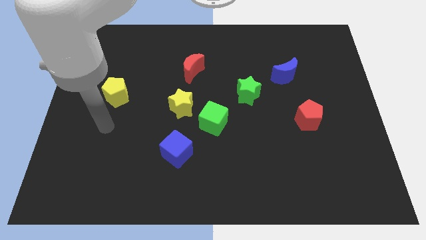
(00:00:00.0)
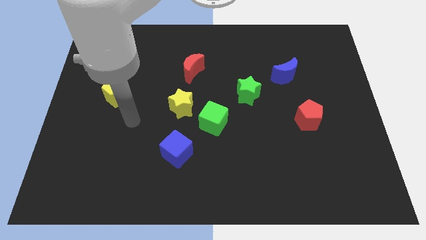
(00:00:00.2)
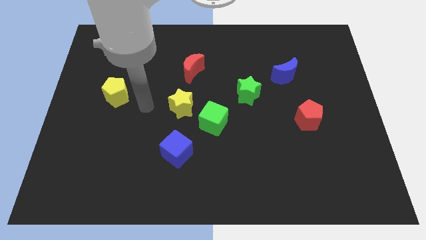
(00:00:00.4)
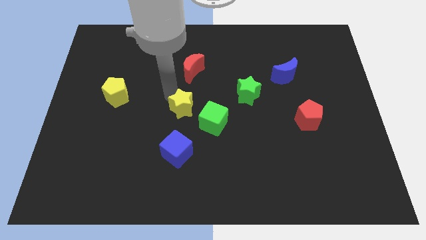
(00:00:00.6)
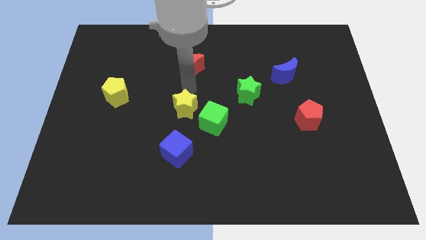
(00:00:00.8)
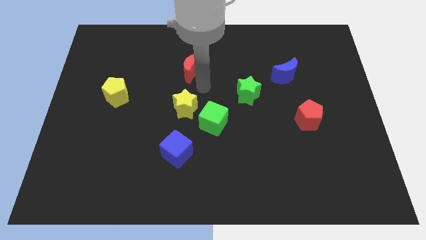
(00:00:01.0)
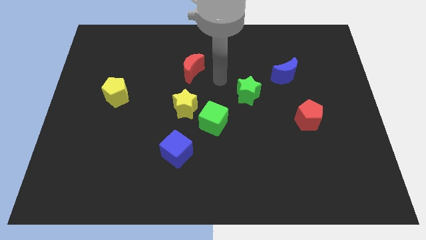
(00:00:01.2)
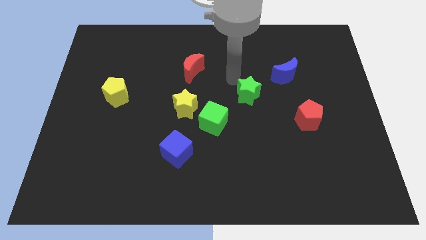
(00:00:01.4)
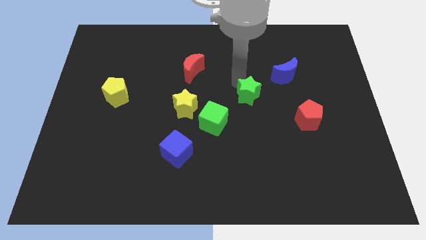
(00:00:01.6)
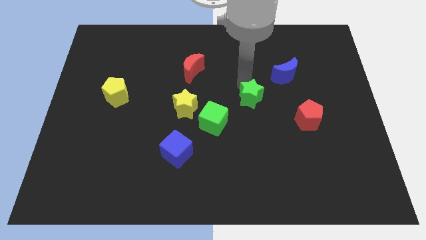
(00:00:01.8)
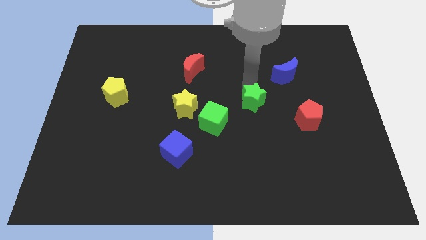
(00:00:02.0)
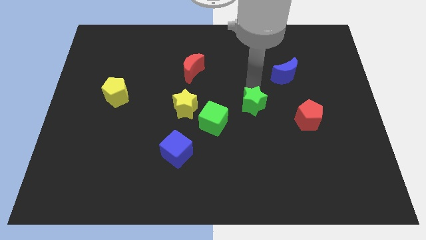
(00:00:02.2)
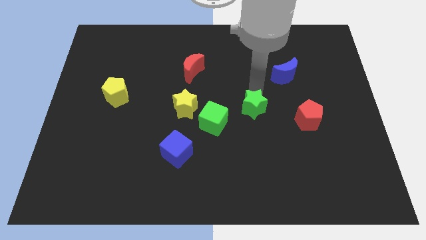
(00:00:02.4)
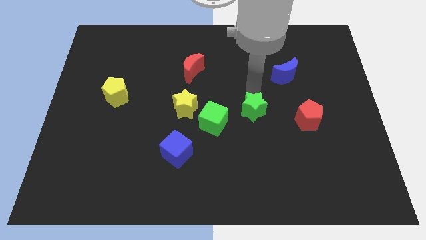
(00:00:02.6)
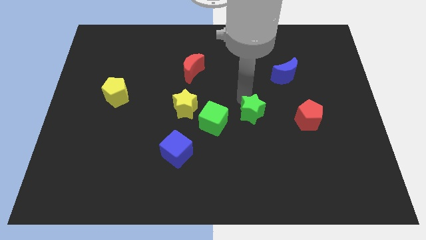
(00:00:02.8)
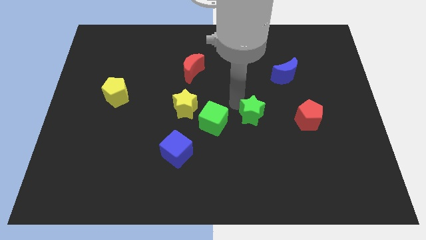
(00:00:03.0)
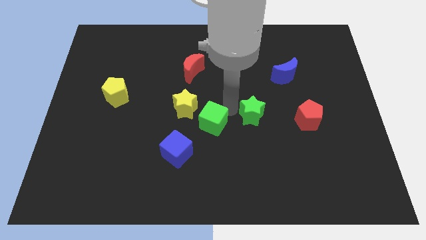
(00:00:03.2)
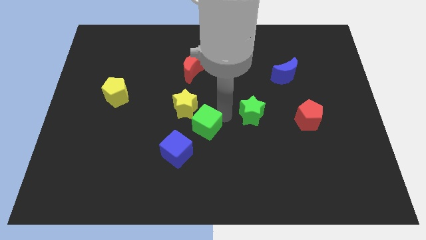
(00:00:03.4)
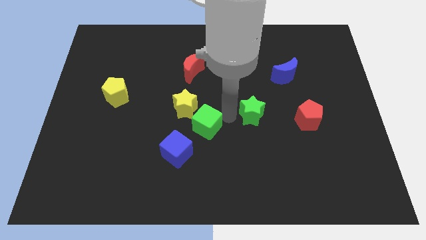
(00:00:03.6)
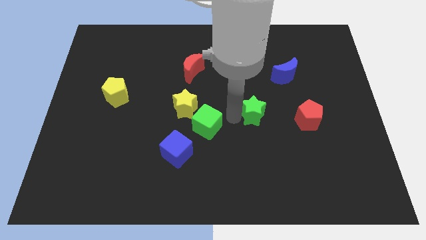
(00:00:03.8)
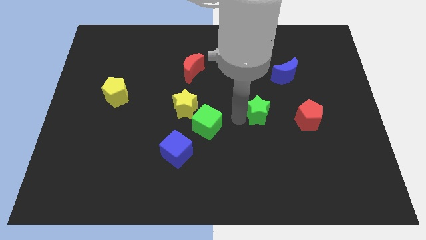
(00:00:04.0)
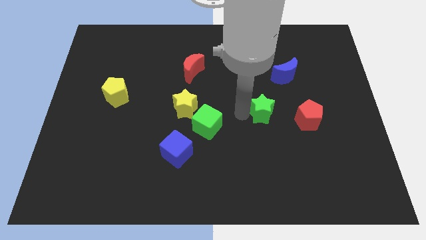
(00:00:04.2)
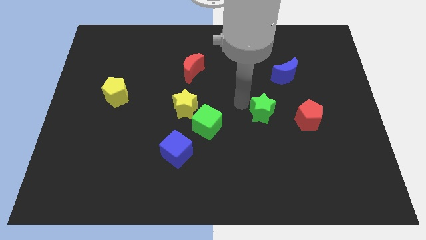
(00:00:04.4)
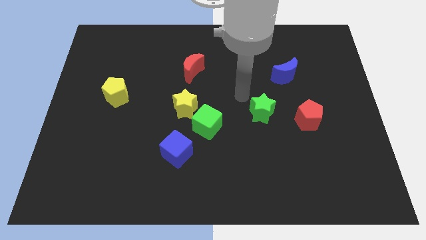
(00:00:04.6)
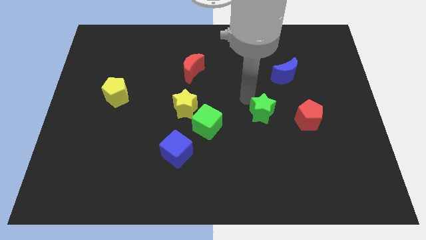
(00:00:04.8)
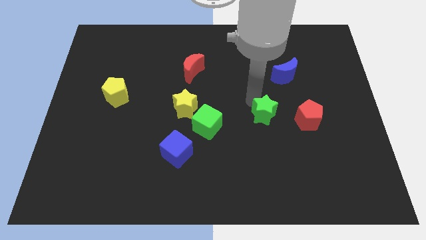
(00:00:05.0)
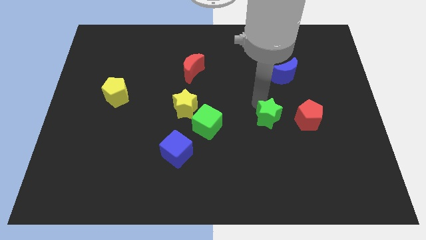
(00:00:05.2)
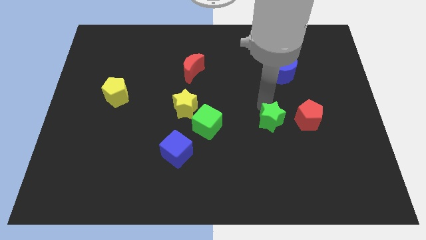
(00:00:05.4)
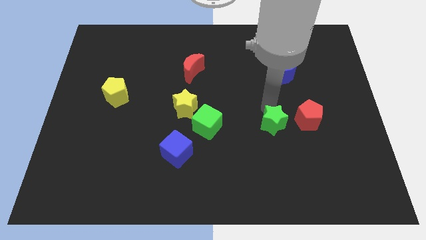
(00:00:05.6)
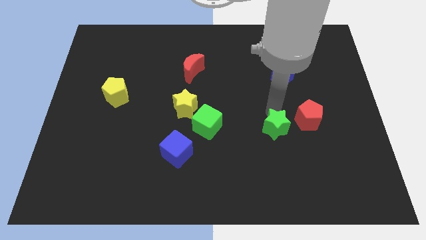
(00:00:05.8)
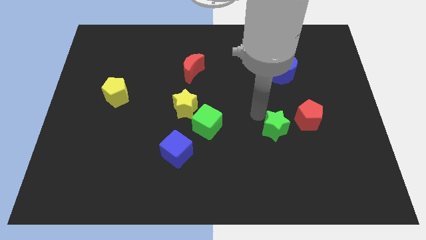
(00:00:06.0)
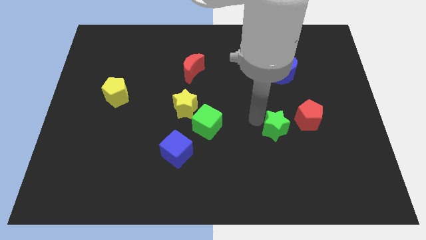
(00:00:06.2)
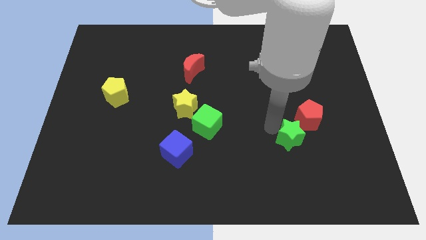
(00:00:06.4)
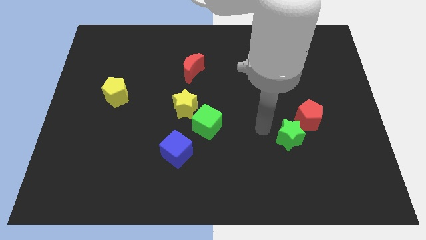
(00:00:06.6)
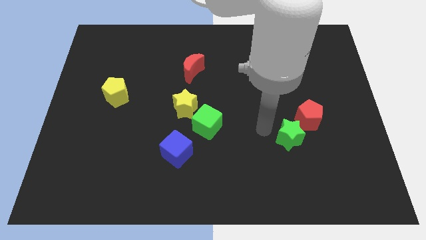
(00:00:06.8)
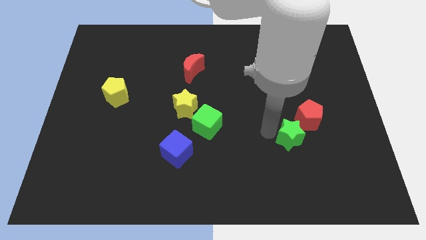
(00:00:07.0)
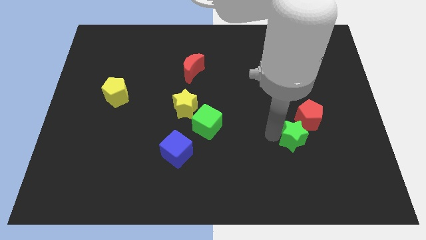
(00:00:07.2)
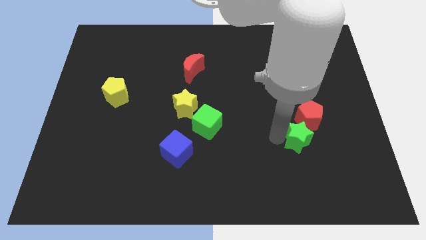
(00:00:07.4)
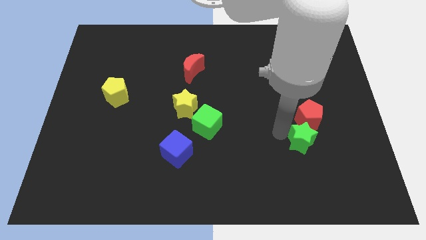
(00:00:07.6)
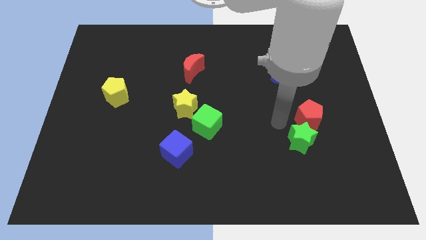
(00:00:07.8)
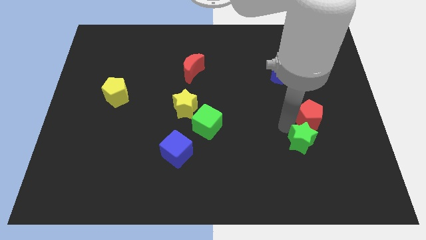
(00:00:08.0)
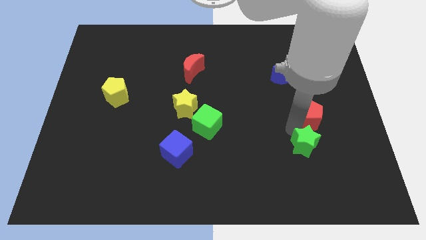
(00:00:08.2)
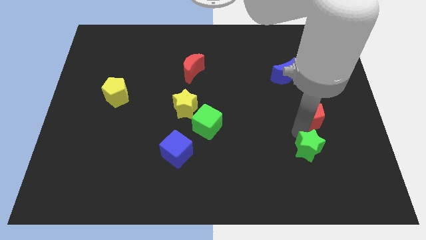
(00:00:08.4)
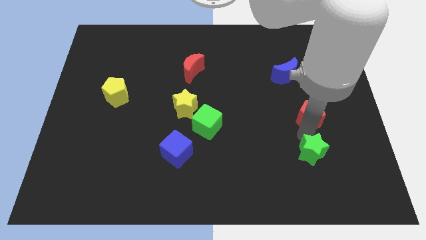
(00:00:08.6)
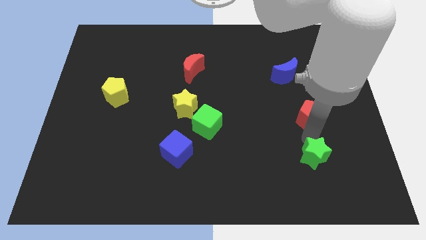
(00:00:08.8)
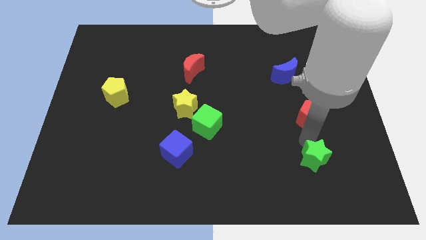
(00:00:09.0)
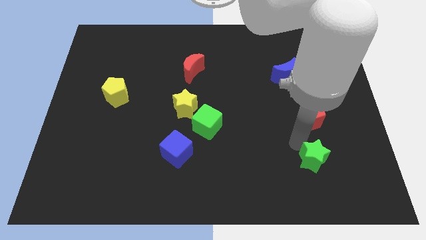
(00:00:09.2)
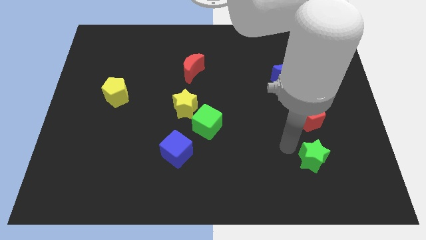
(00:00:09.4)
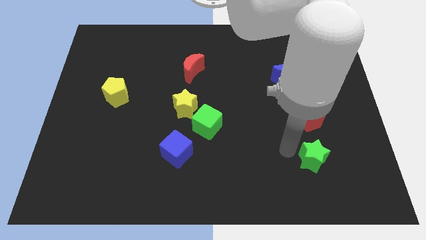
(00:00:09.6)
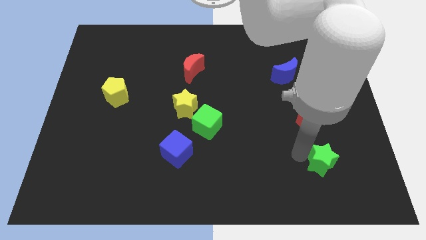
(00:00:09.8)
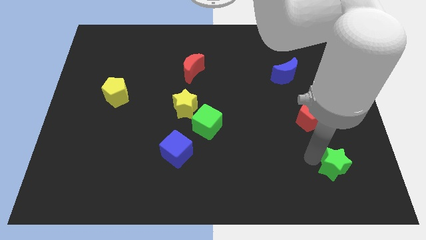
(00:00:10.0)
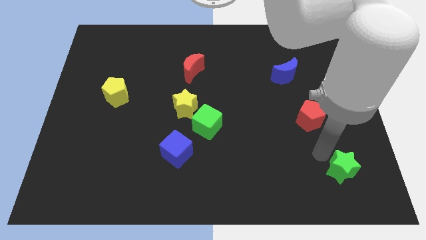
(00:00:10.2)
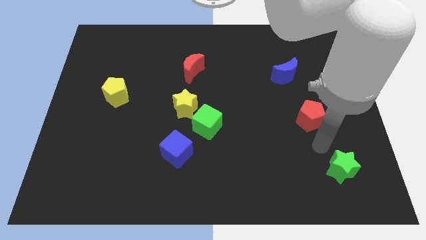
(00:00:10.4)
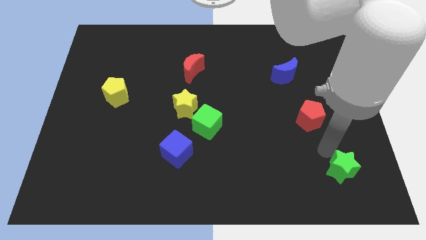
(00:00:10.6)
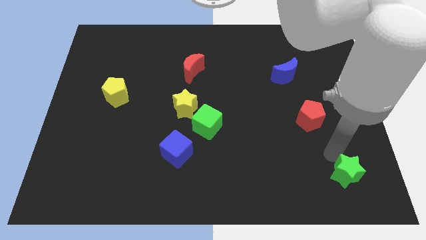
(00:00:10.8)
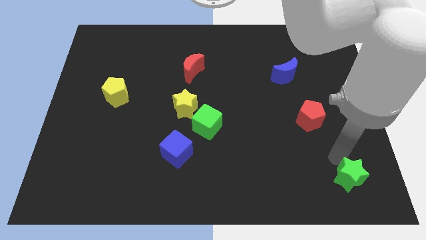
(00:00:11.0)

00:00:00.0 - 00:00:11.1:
push the green star to the bottom right

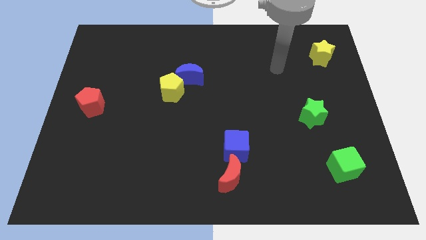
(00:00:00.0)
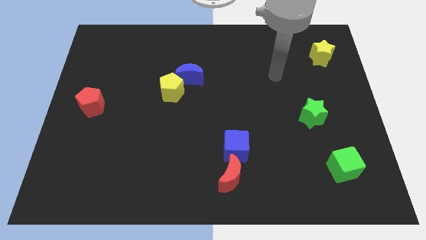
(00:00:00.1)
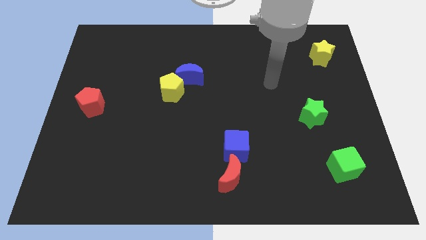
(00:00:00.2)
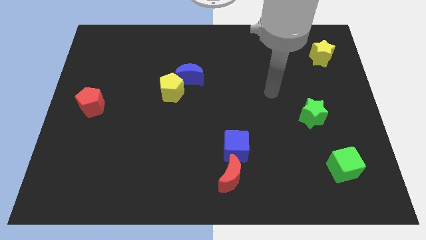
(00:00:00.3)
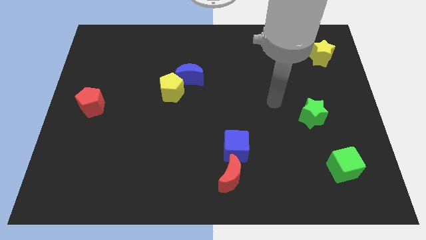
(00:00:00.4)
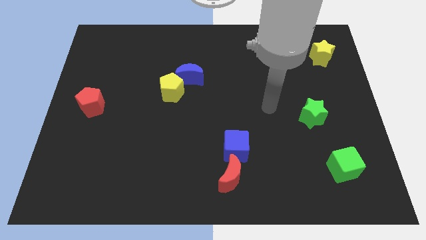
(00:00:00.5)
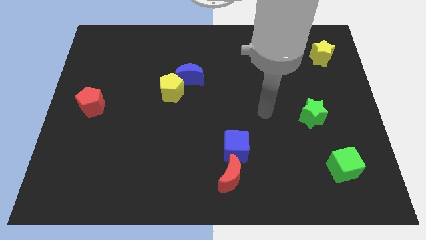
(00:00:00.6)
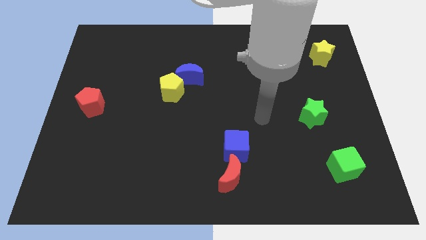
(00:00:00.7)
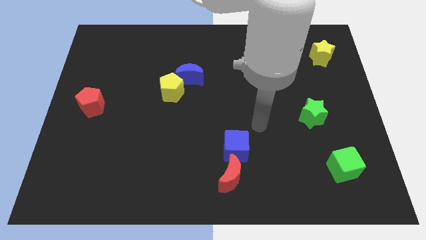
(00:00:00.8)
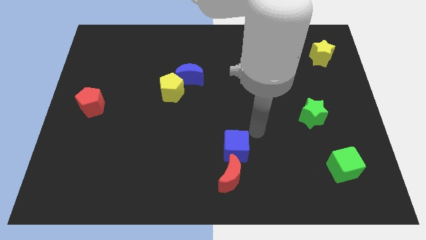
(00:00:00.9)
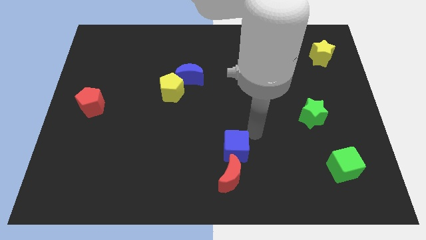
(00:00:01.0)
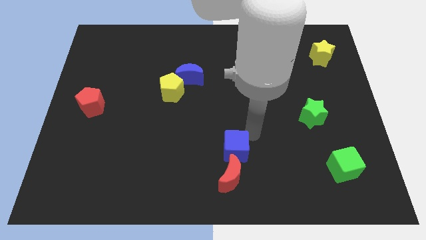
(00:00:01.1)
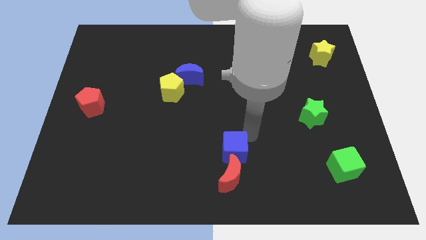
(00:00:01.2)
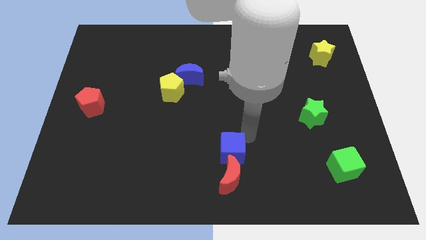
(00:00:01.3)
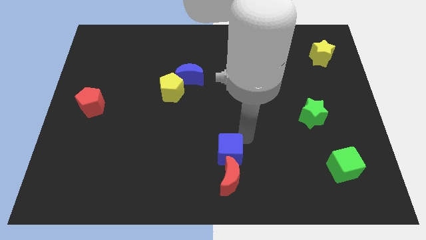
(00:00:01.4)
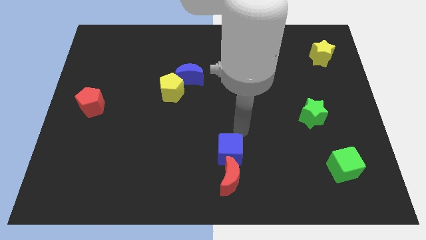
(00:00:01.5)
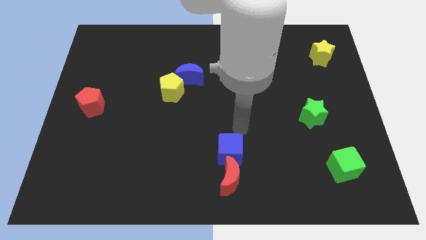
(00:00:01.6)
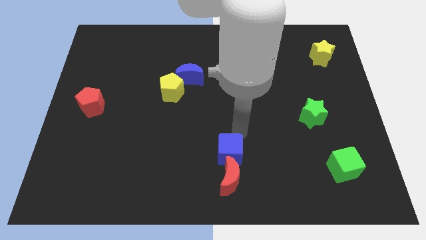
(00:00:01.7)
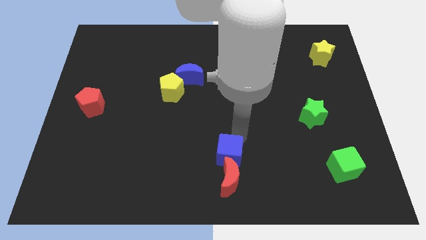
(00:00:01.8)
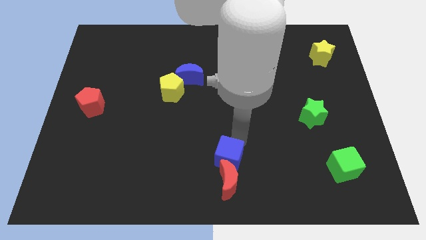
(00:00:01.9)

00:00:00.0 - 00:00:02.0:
push the blue cube to the bottom

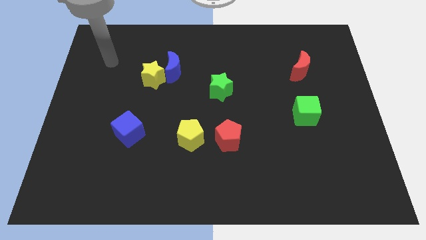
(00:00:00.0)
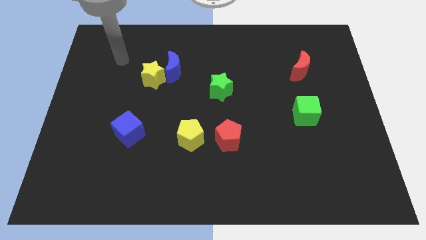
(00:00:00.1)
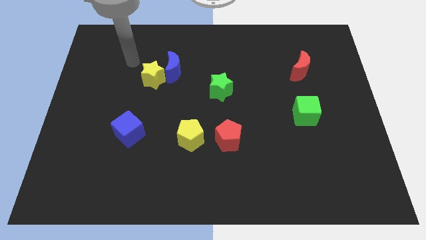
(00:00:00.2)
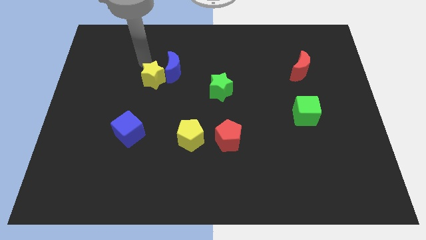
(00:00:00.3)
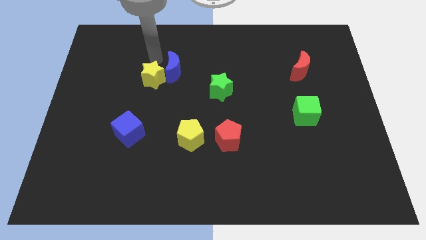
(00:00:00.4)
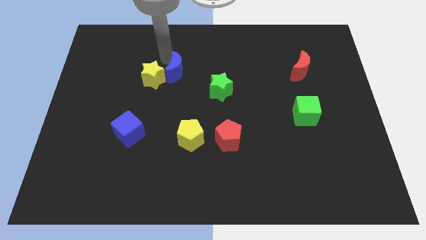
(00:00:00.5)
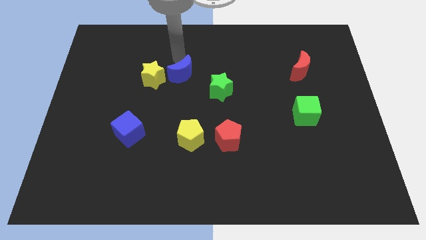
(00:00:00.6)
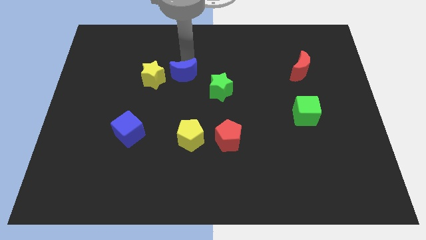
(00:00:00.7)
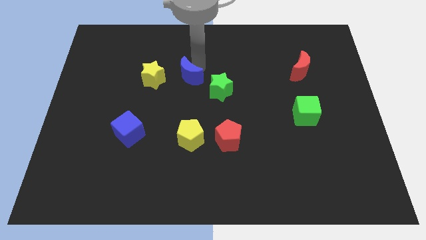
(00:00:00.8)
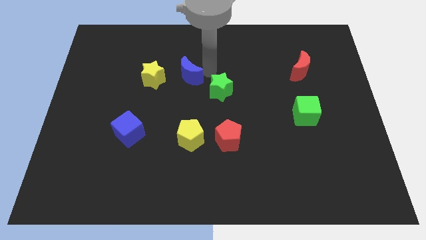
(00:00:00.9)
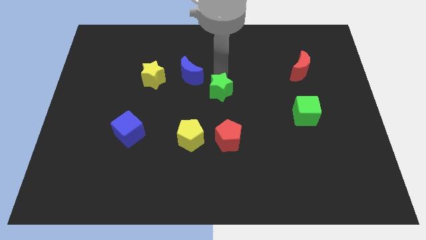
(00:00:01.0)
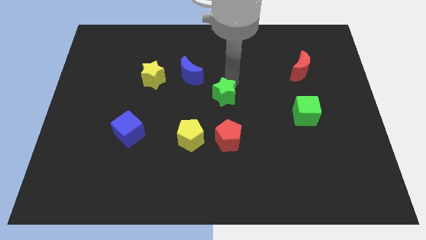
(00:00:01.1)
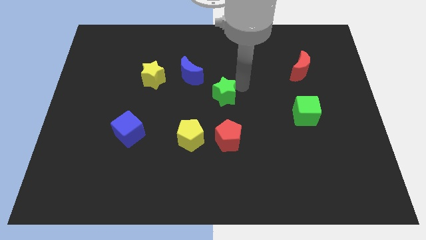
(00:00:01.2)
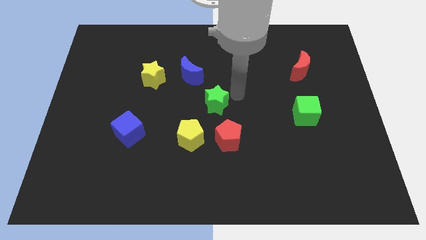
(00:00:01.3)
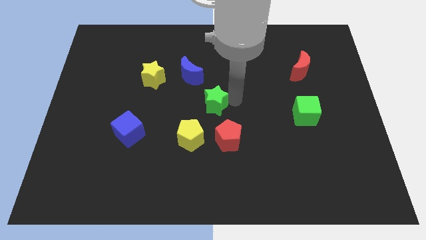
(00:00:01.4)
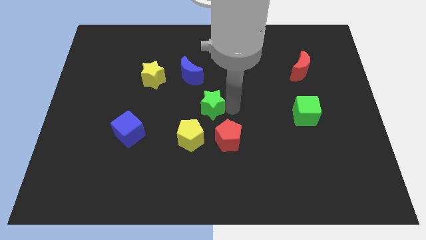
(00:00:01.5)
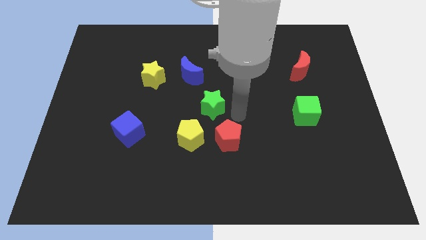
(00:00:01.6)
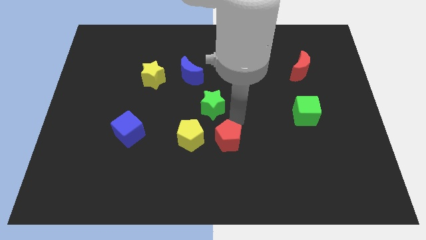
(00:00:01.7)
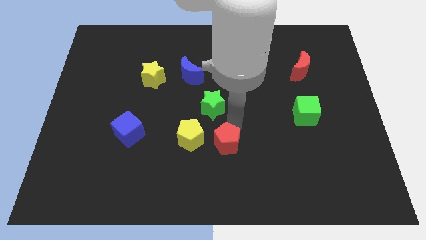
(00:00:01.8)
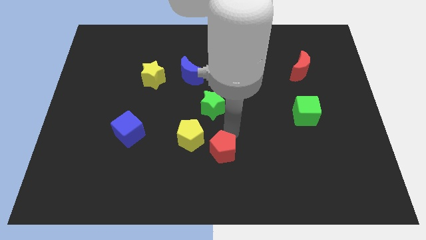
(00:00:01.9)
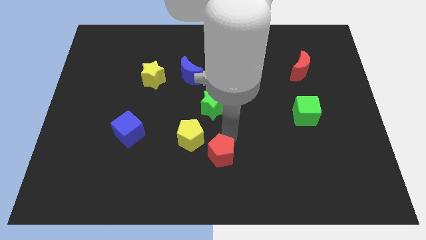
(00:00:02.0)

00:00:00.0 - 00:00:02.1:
slide the red pentagon to the bottom side
